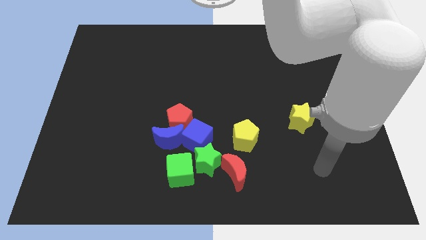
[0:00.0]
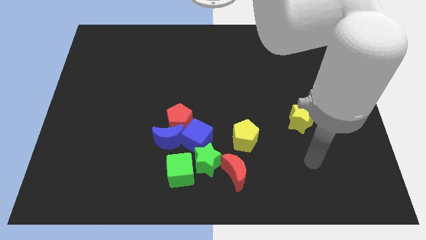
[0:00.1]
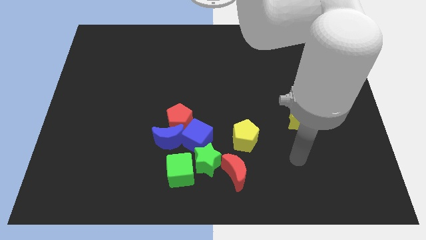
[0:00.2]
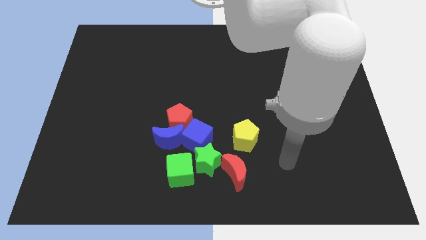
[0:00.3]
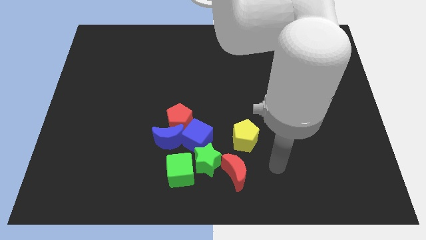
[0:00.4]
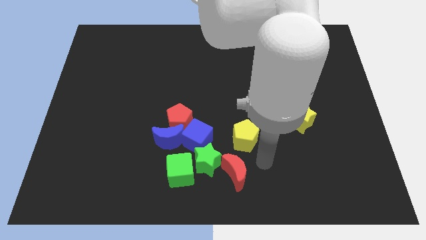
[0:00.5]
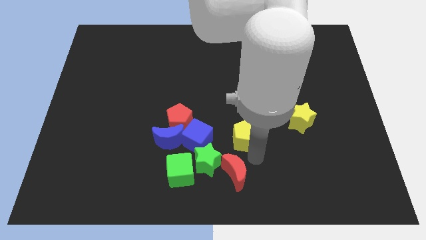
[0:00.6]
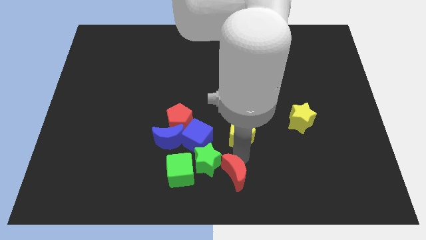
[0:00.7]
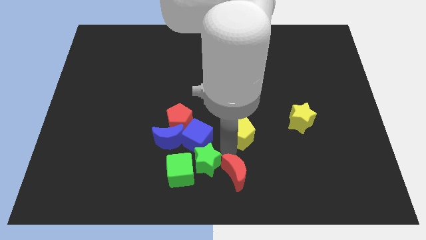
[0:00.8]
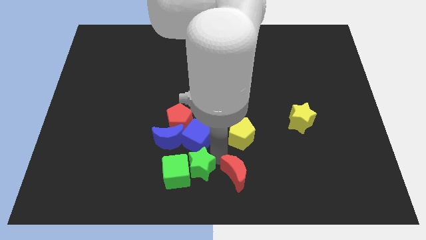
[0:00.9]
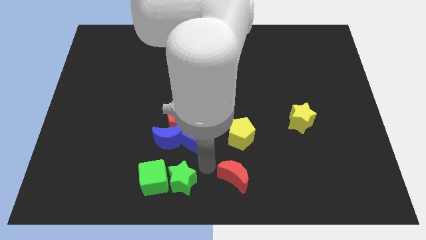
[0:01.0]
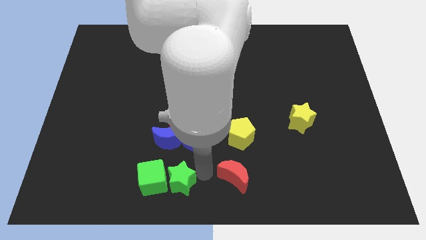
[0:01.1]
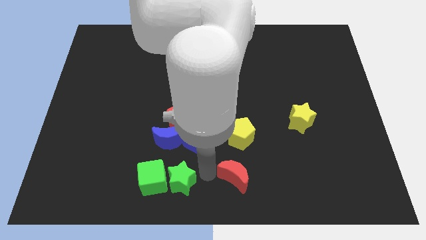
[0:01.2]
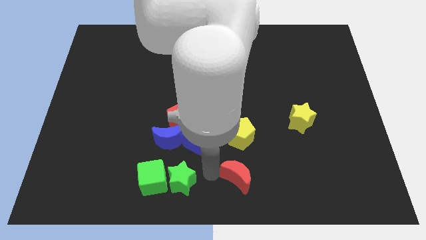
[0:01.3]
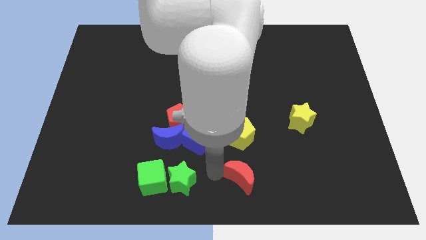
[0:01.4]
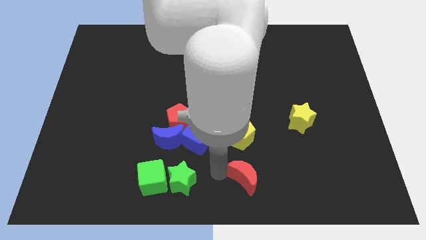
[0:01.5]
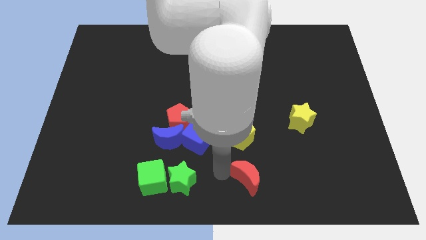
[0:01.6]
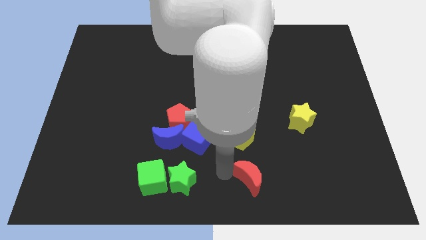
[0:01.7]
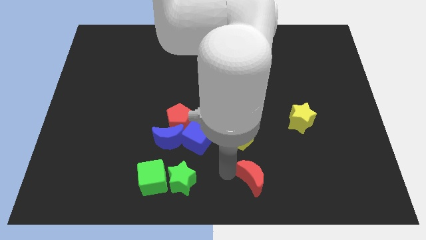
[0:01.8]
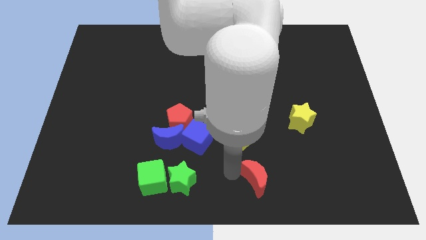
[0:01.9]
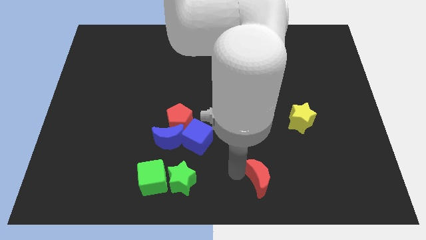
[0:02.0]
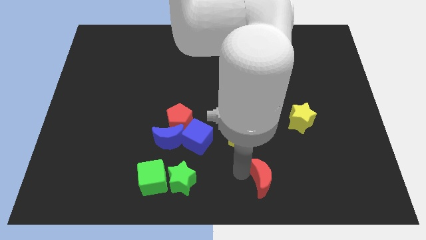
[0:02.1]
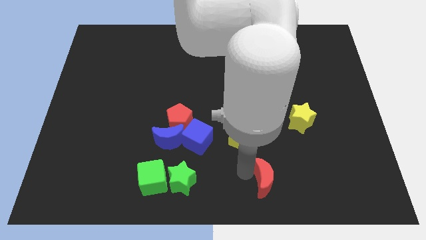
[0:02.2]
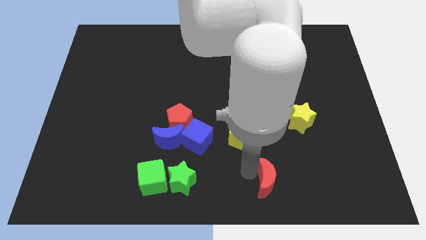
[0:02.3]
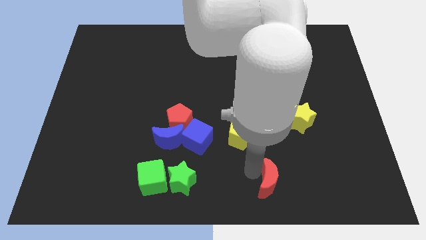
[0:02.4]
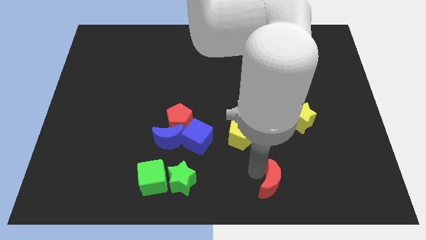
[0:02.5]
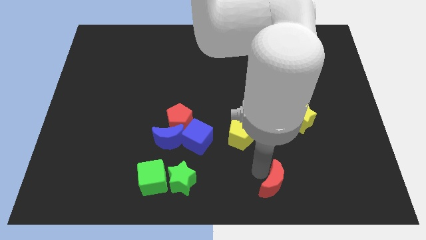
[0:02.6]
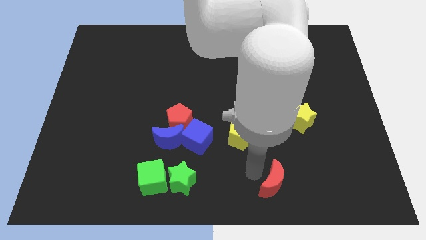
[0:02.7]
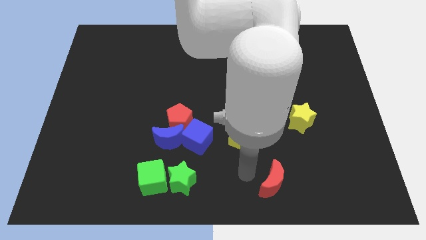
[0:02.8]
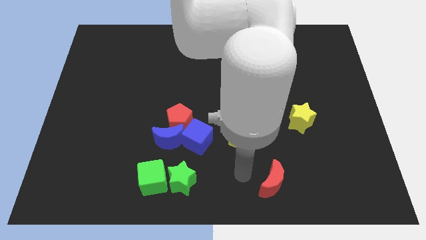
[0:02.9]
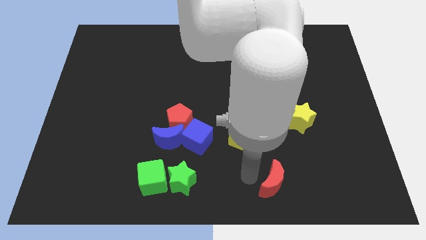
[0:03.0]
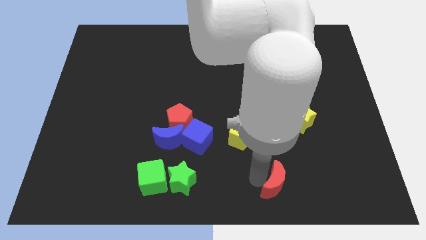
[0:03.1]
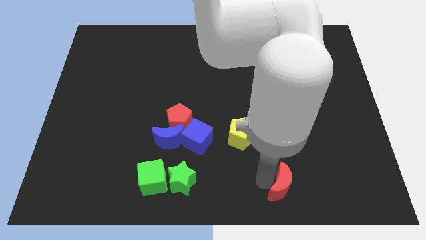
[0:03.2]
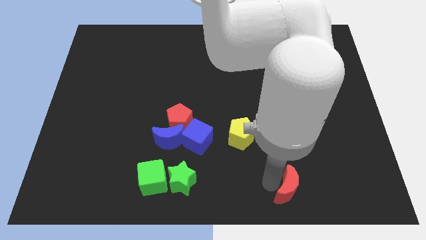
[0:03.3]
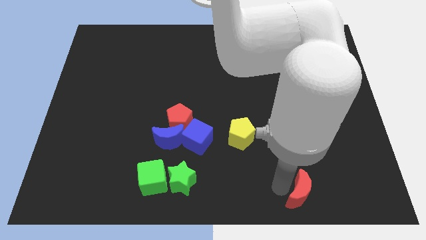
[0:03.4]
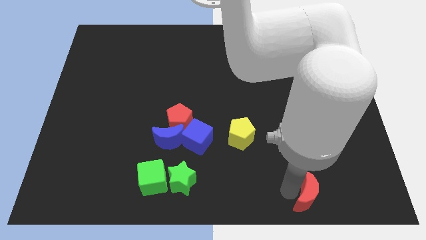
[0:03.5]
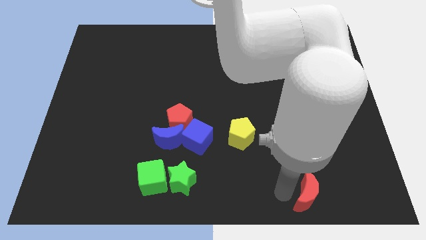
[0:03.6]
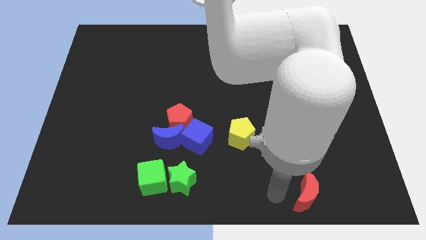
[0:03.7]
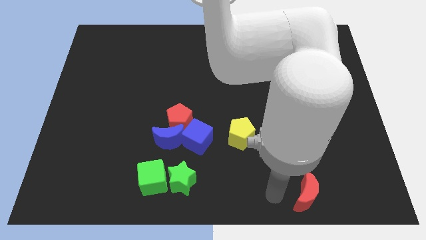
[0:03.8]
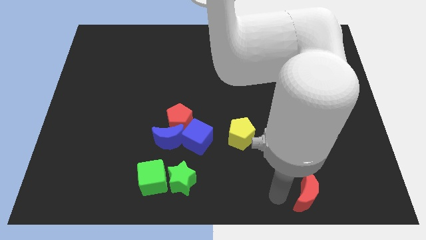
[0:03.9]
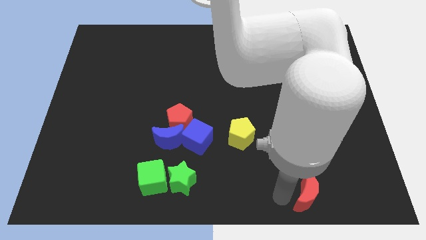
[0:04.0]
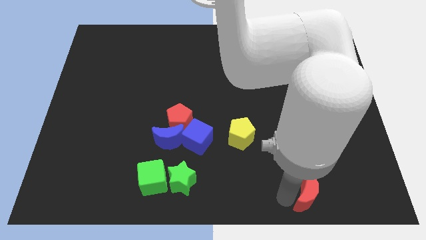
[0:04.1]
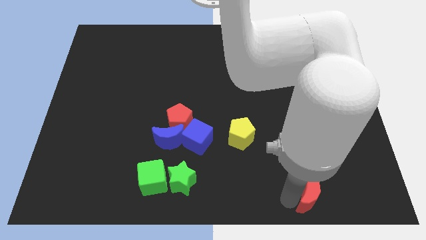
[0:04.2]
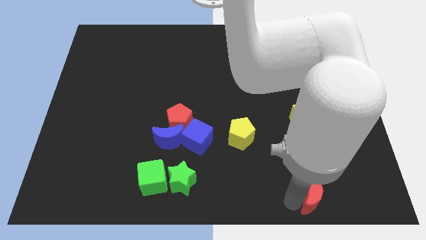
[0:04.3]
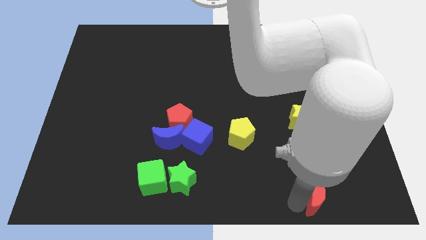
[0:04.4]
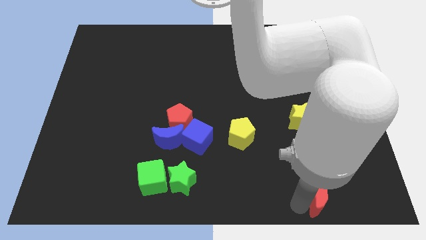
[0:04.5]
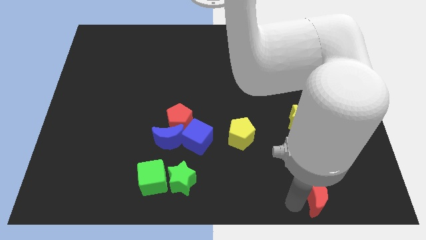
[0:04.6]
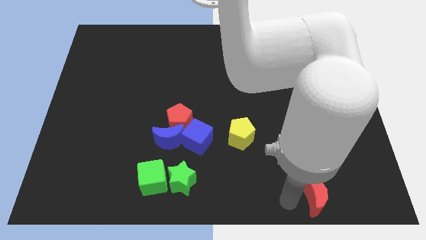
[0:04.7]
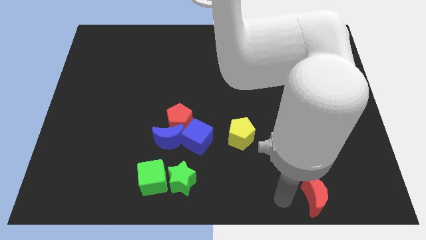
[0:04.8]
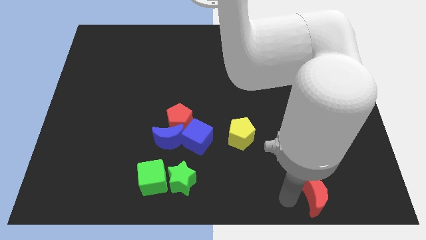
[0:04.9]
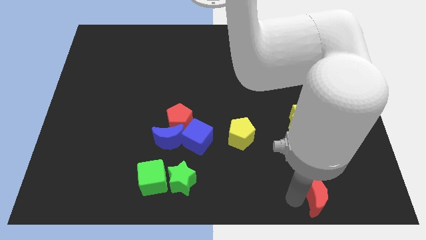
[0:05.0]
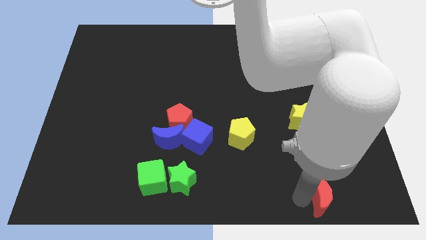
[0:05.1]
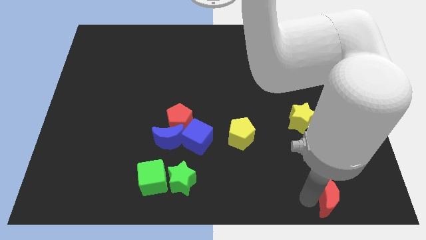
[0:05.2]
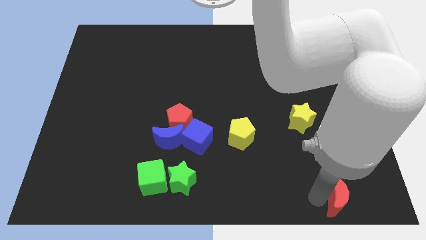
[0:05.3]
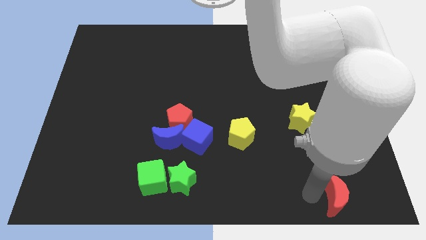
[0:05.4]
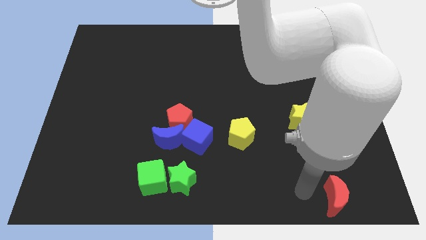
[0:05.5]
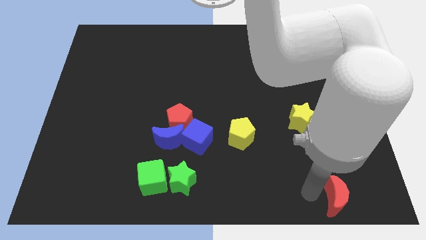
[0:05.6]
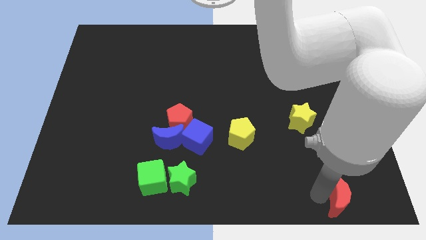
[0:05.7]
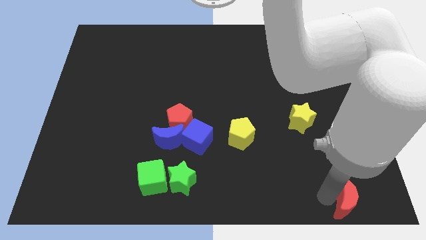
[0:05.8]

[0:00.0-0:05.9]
push the red moon to the bottom right
